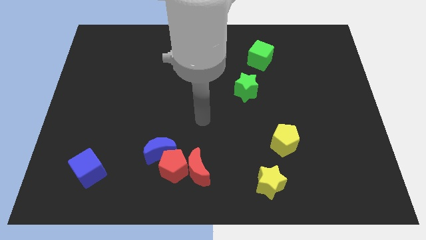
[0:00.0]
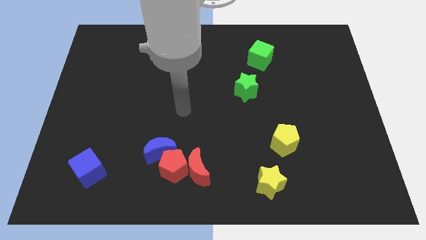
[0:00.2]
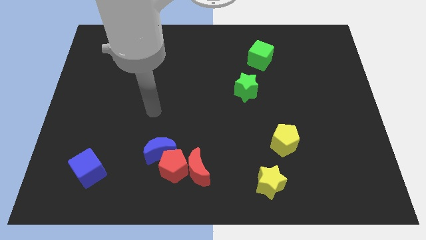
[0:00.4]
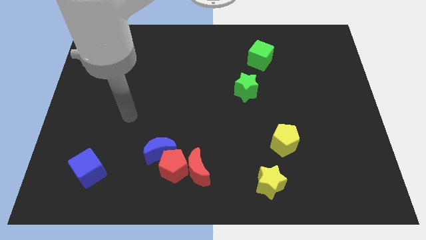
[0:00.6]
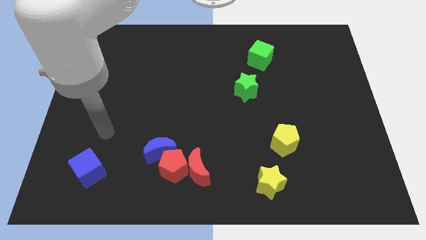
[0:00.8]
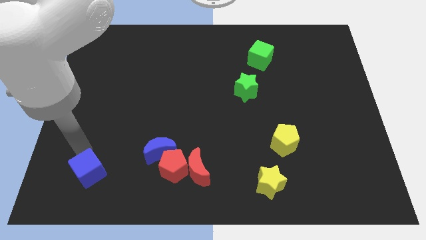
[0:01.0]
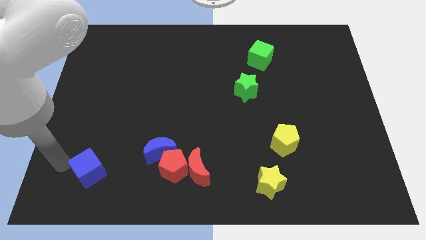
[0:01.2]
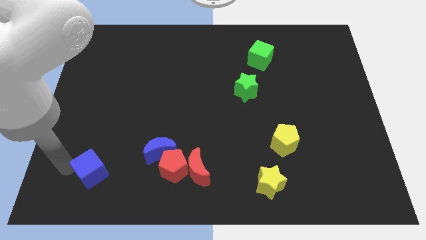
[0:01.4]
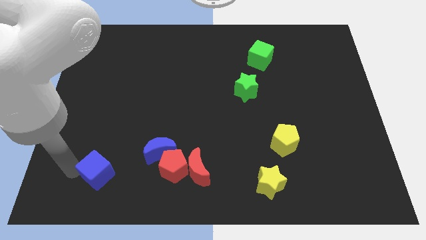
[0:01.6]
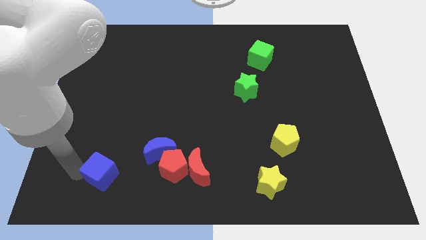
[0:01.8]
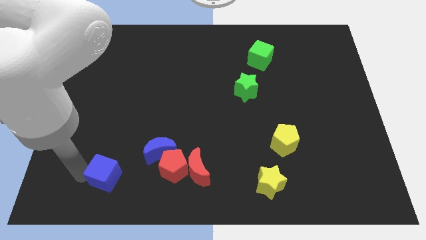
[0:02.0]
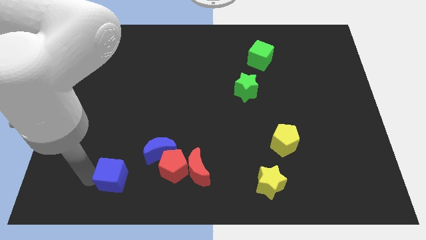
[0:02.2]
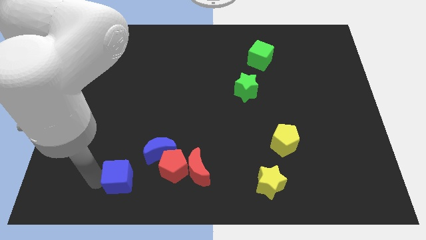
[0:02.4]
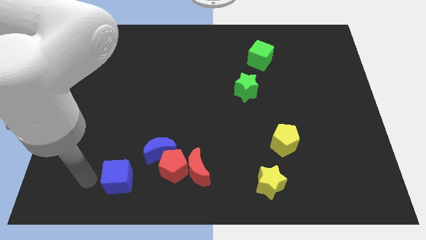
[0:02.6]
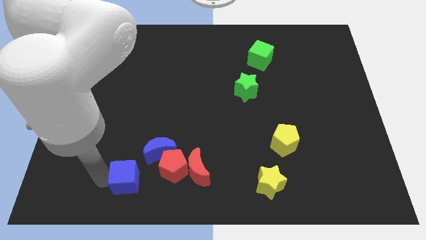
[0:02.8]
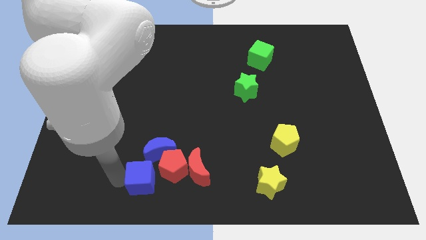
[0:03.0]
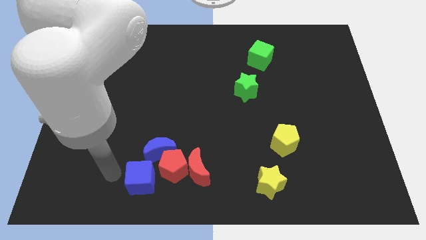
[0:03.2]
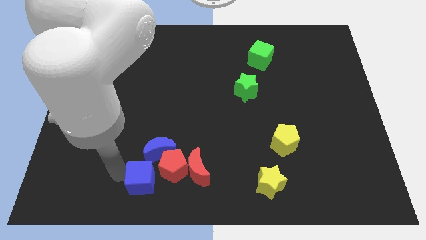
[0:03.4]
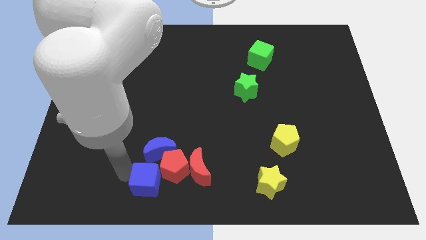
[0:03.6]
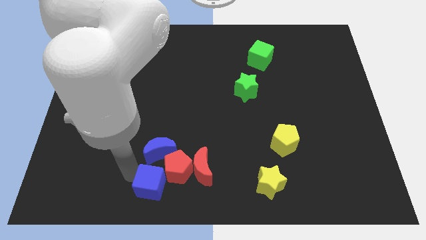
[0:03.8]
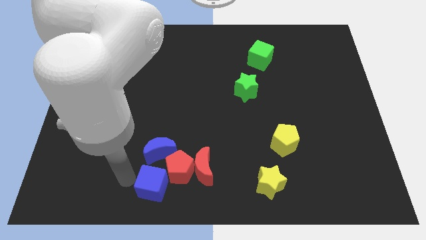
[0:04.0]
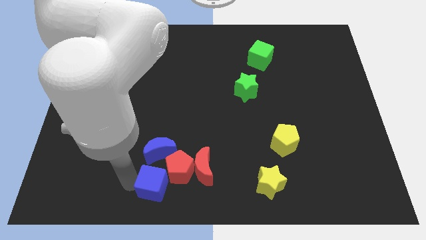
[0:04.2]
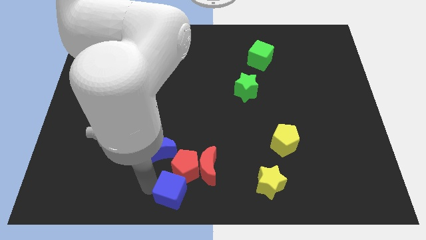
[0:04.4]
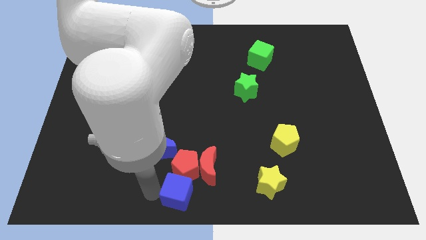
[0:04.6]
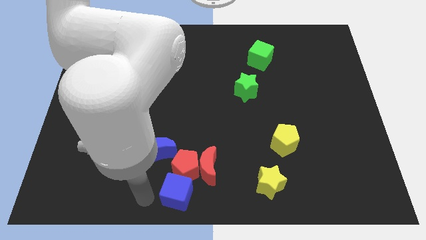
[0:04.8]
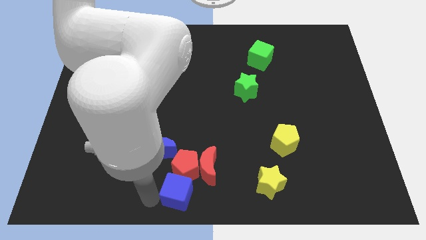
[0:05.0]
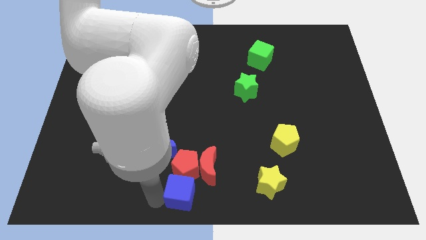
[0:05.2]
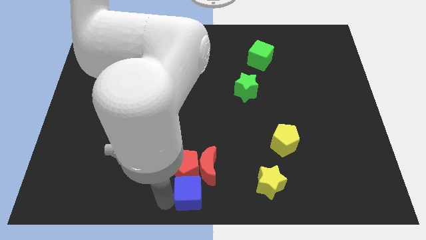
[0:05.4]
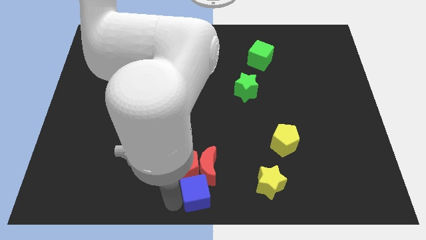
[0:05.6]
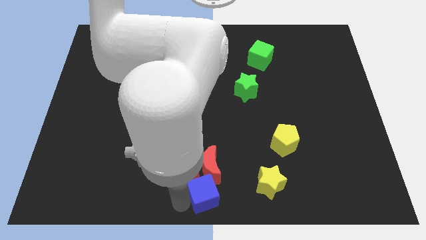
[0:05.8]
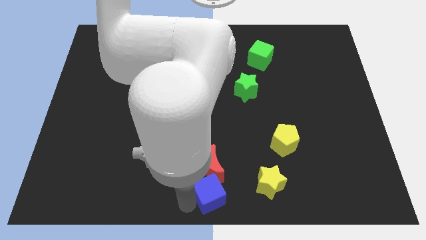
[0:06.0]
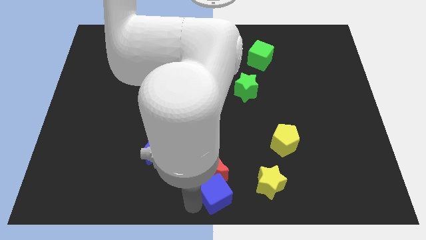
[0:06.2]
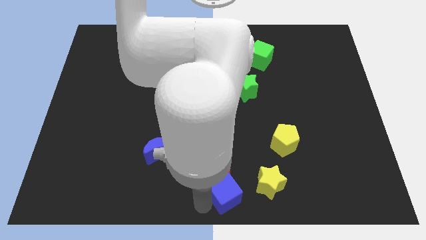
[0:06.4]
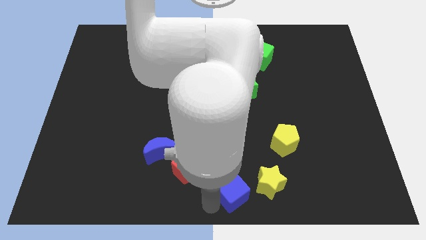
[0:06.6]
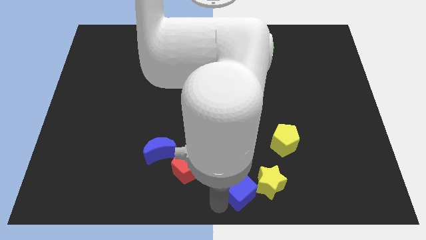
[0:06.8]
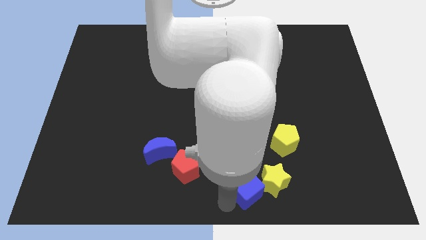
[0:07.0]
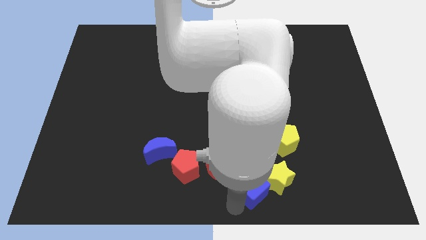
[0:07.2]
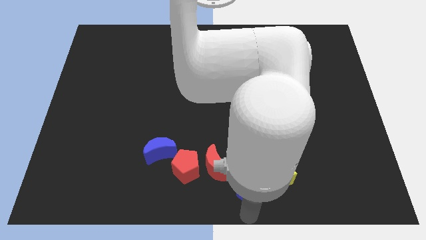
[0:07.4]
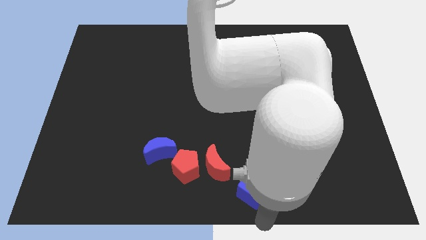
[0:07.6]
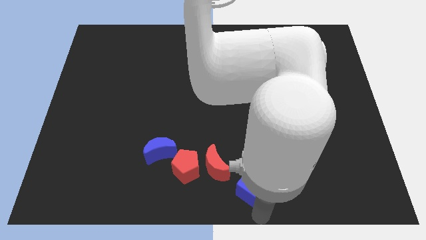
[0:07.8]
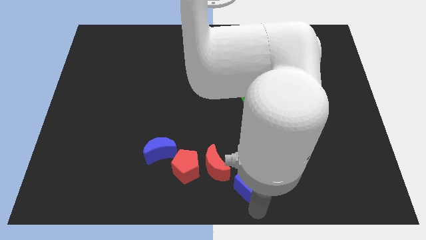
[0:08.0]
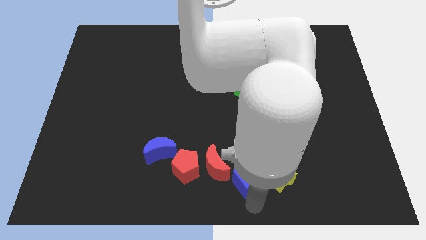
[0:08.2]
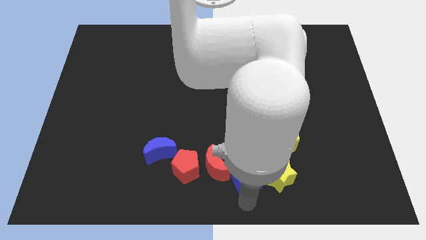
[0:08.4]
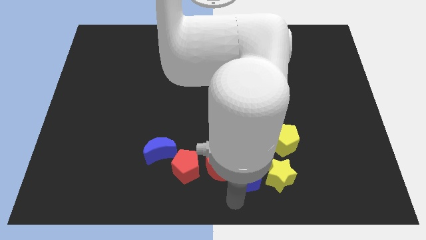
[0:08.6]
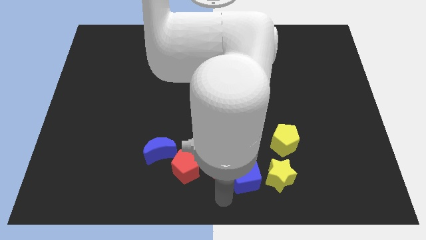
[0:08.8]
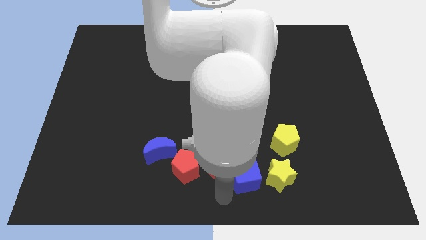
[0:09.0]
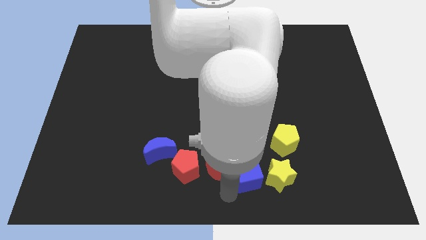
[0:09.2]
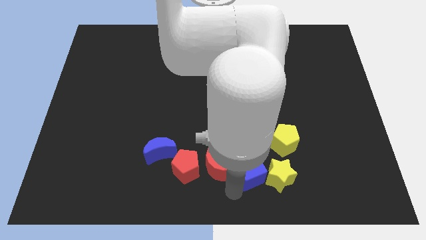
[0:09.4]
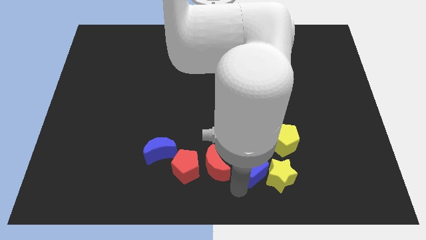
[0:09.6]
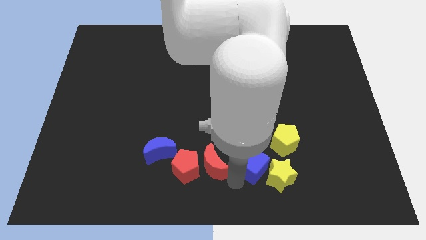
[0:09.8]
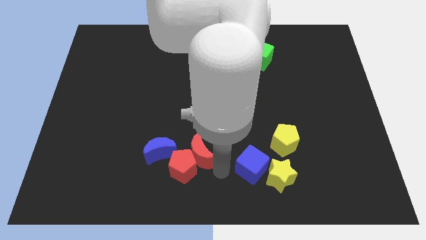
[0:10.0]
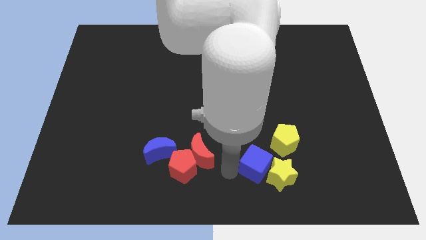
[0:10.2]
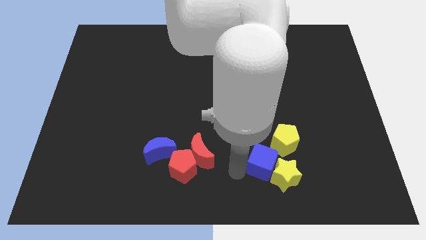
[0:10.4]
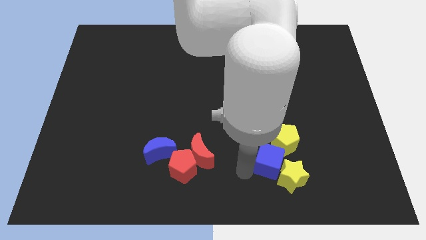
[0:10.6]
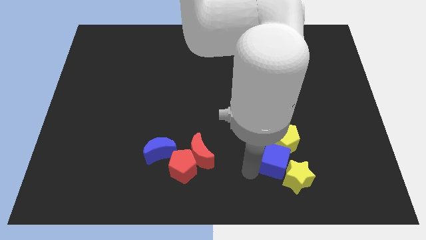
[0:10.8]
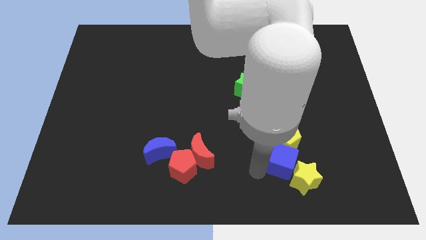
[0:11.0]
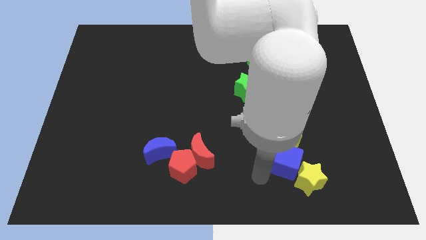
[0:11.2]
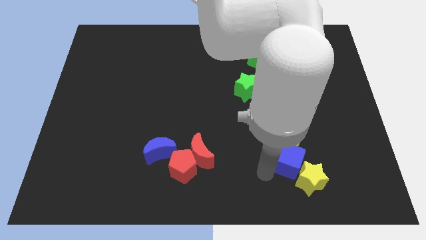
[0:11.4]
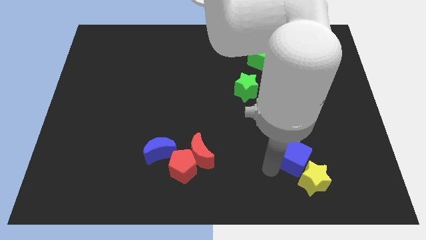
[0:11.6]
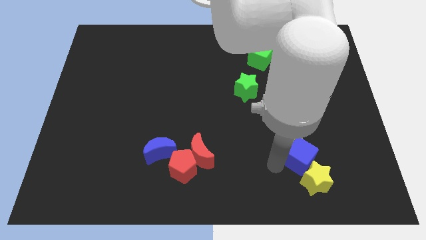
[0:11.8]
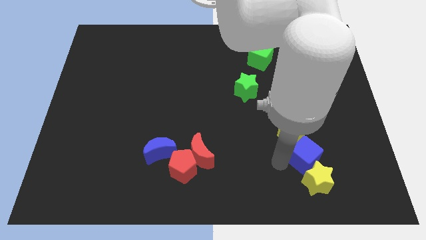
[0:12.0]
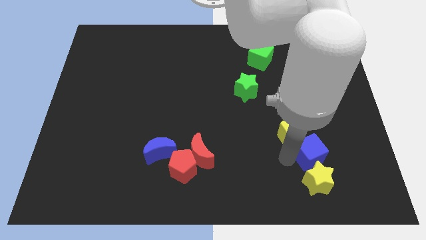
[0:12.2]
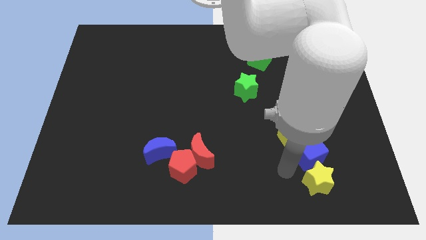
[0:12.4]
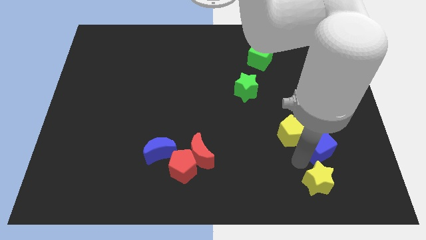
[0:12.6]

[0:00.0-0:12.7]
put the blue cube to the right side of the yellow pentagon

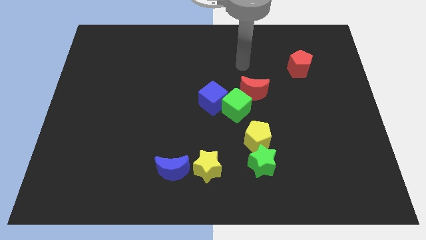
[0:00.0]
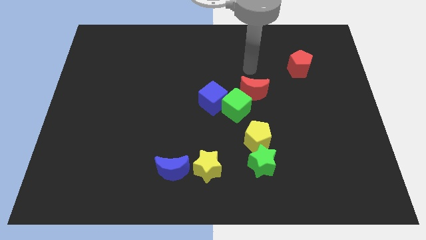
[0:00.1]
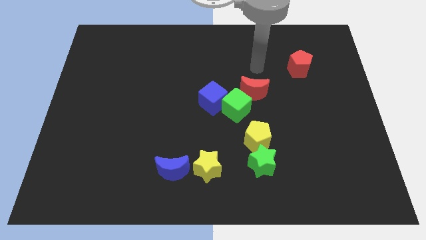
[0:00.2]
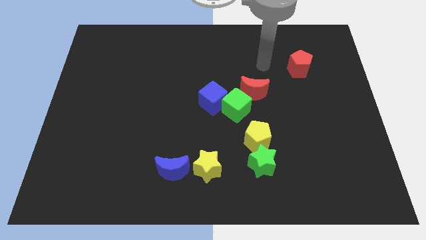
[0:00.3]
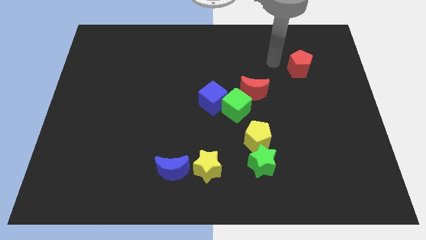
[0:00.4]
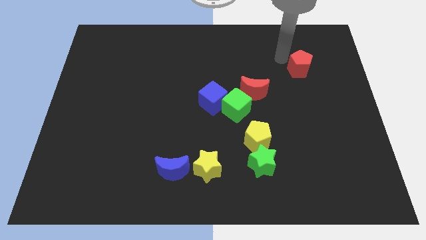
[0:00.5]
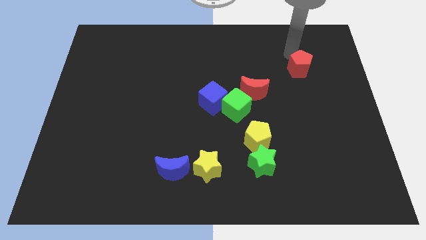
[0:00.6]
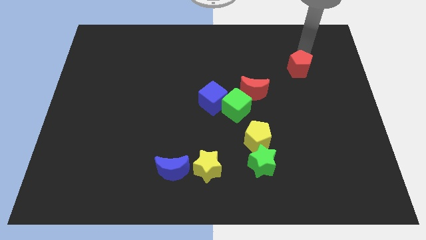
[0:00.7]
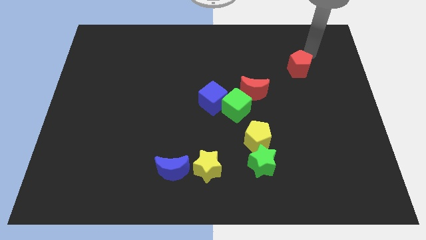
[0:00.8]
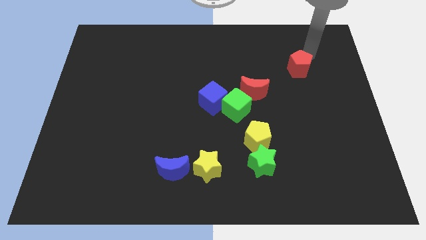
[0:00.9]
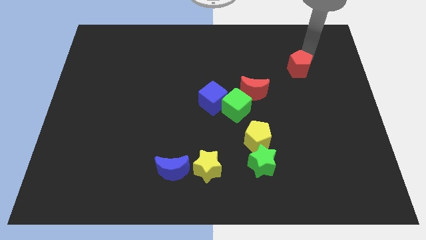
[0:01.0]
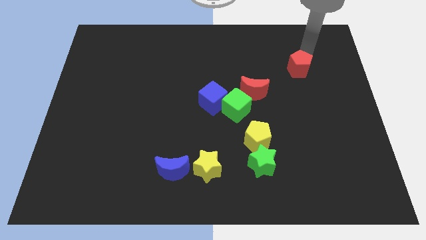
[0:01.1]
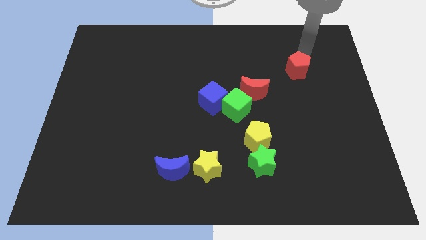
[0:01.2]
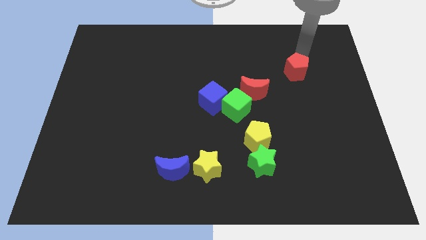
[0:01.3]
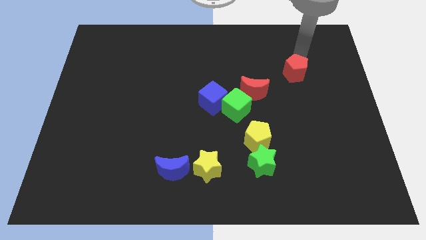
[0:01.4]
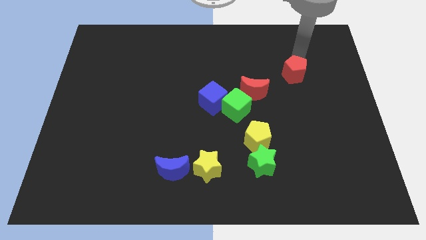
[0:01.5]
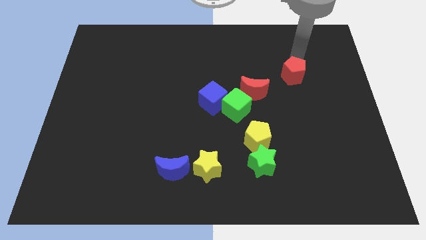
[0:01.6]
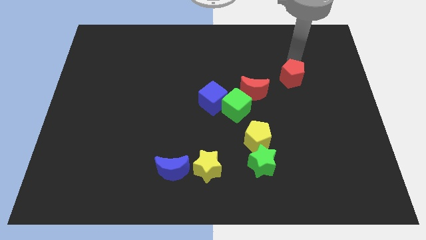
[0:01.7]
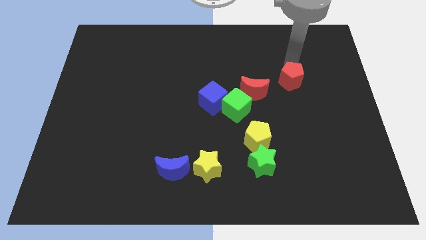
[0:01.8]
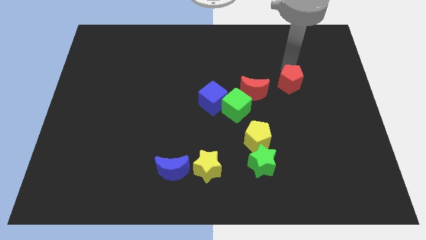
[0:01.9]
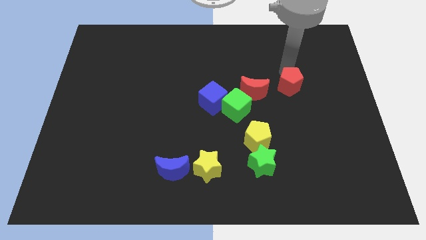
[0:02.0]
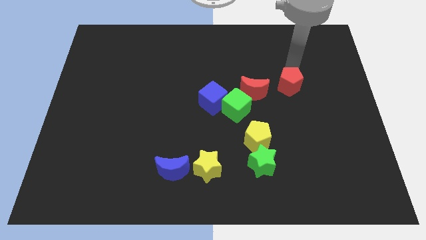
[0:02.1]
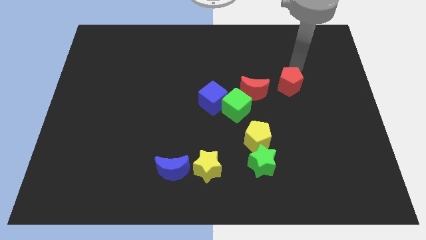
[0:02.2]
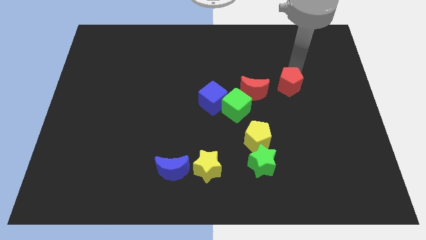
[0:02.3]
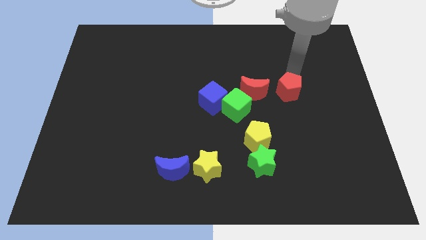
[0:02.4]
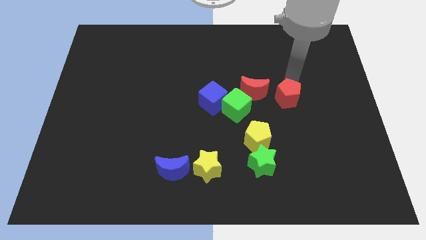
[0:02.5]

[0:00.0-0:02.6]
move the red pentagon to the bottom right of the red moon
